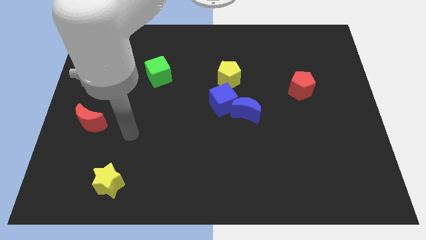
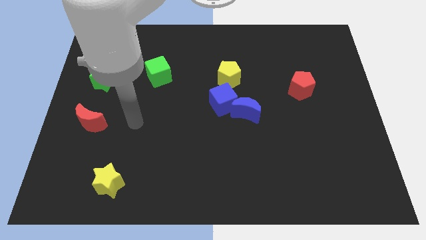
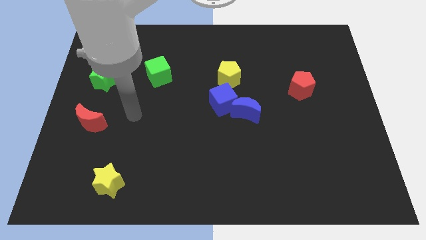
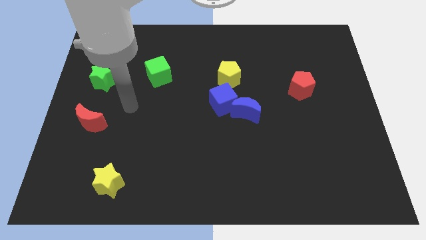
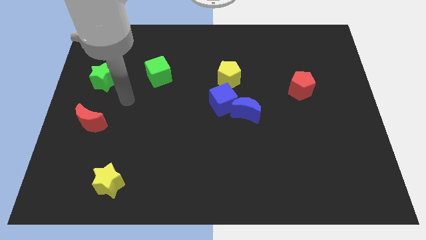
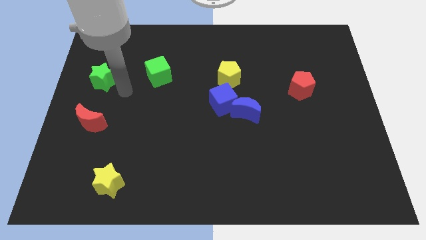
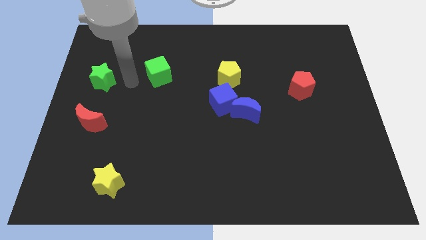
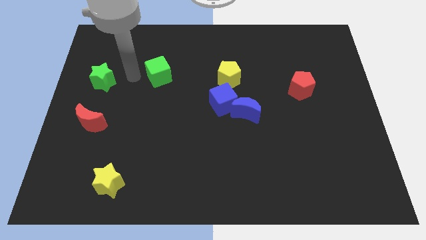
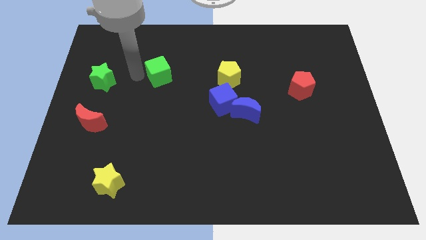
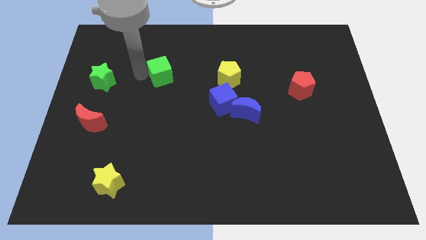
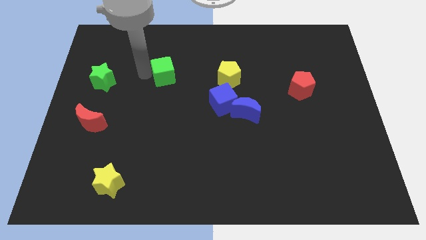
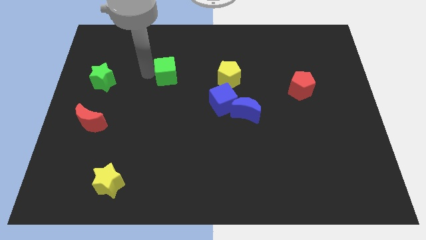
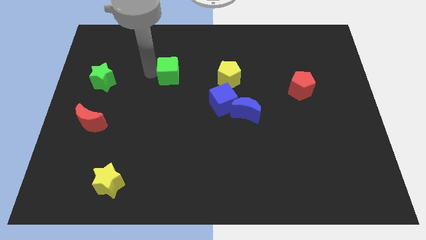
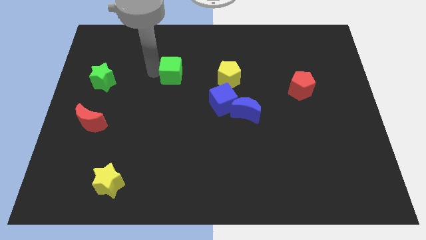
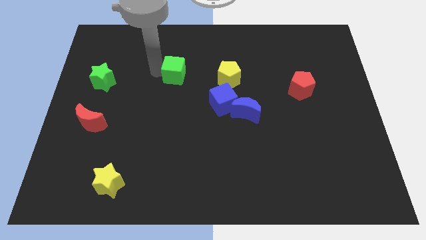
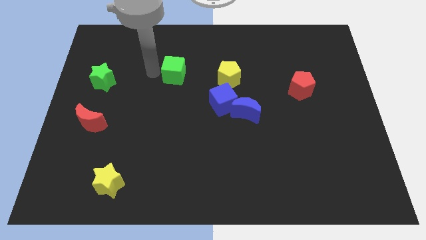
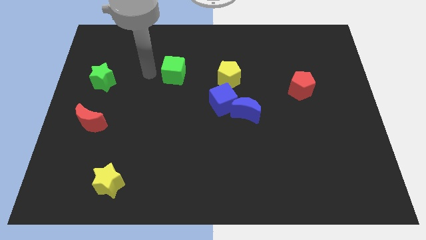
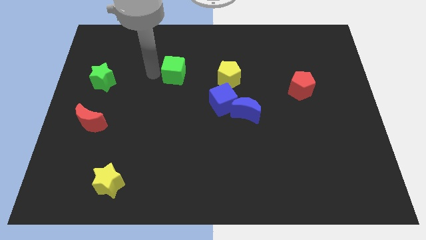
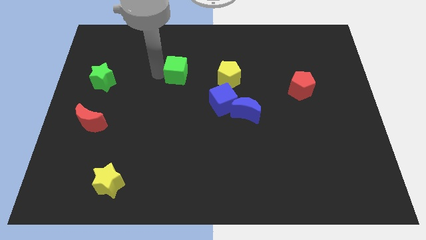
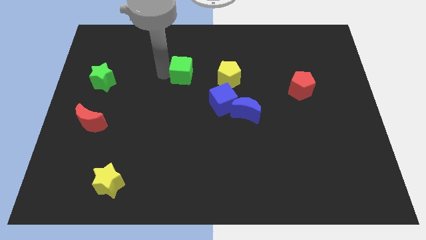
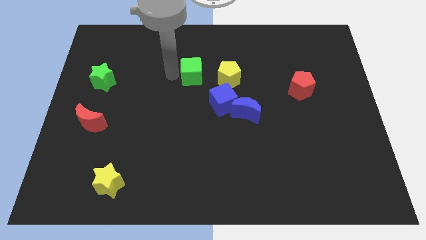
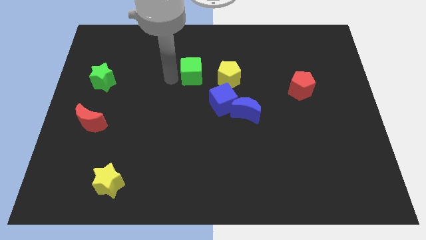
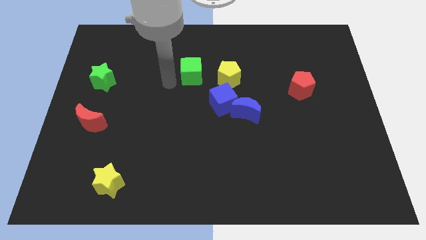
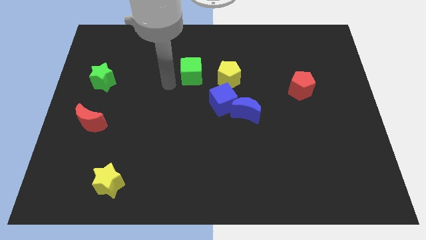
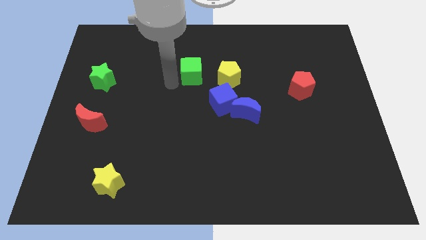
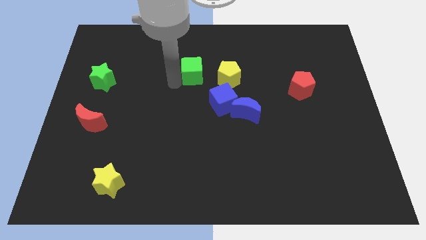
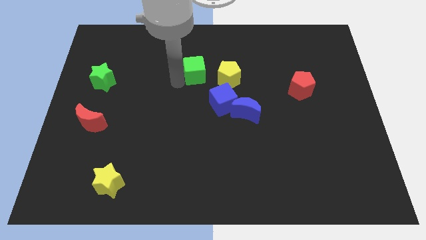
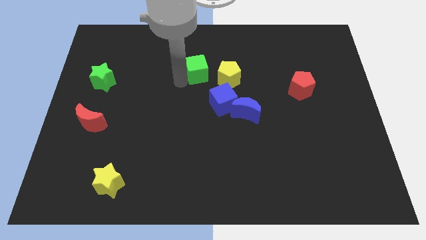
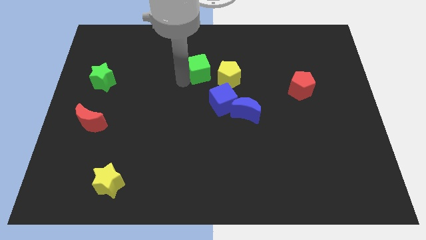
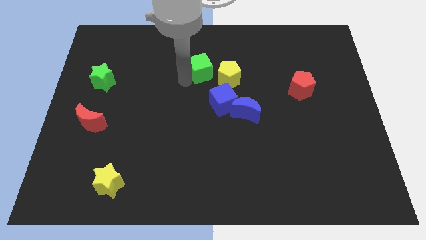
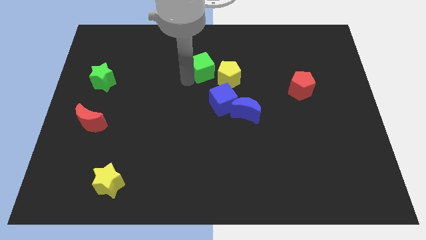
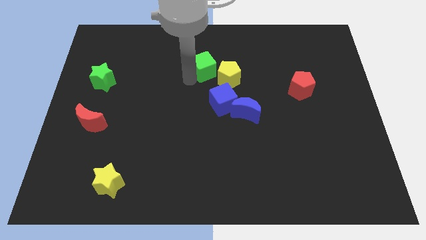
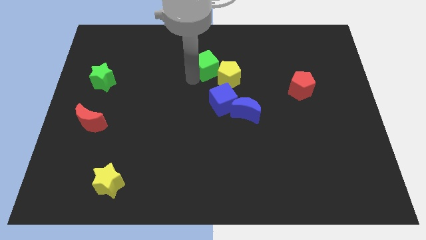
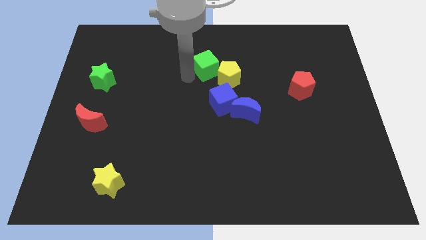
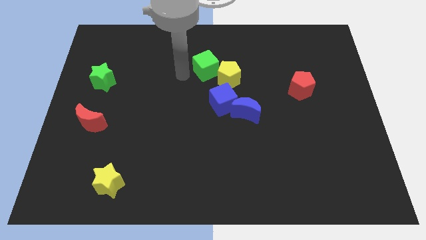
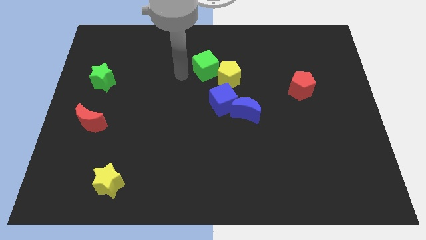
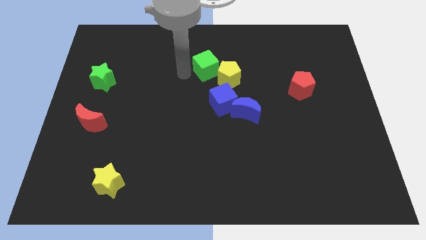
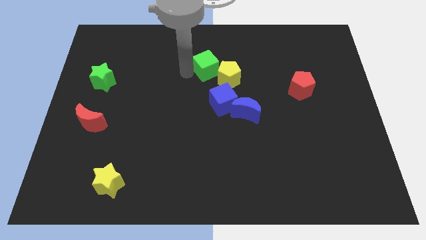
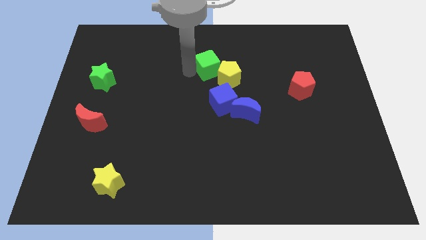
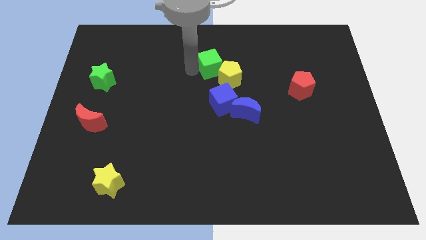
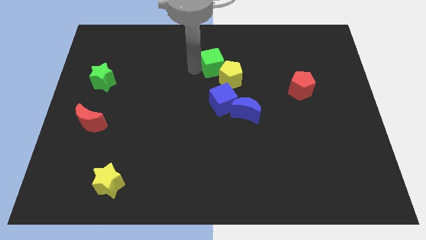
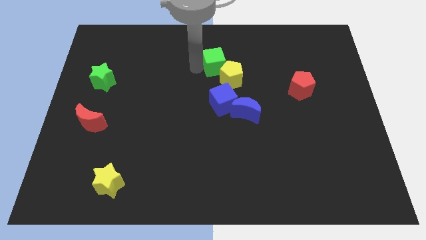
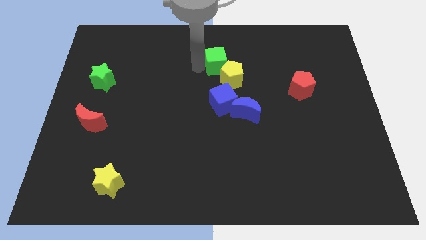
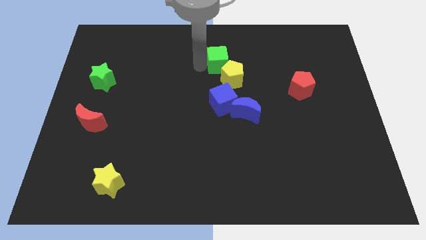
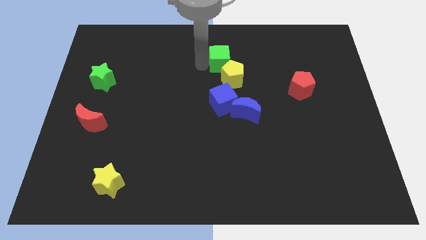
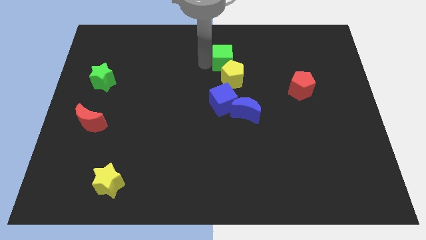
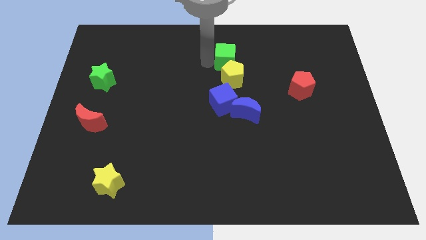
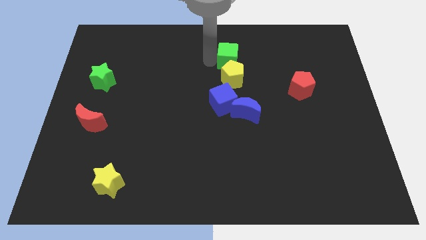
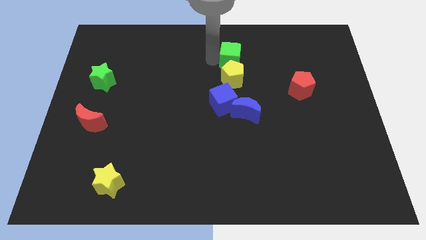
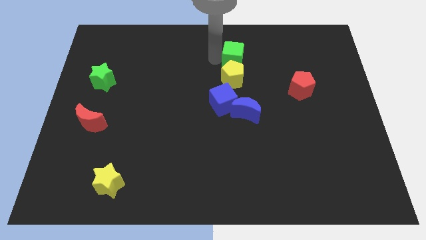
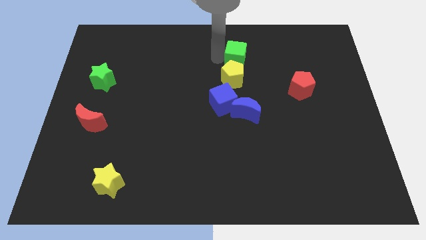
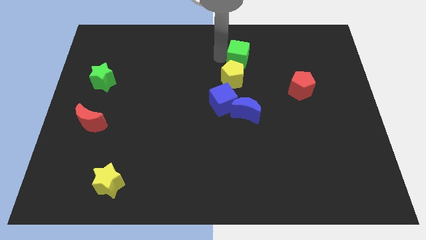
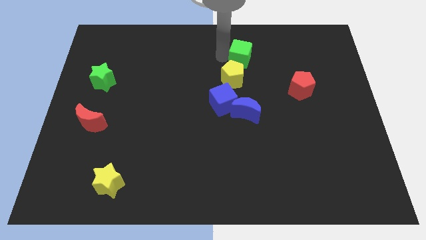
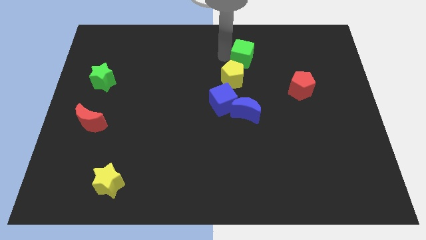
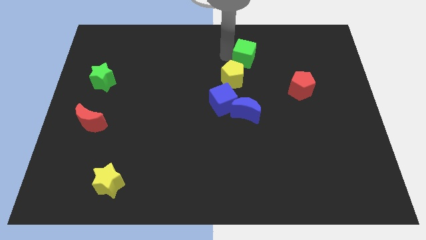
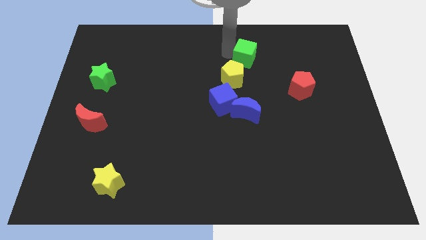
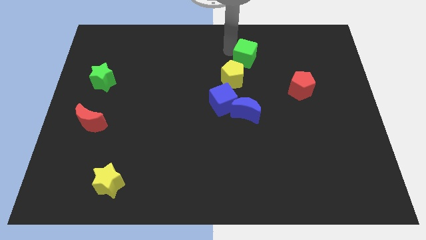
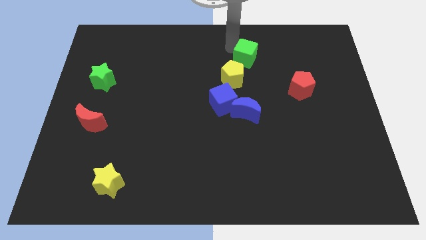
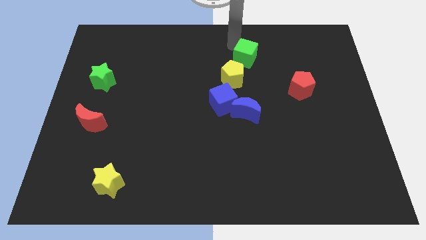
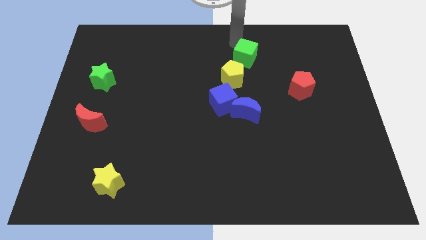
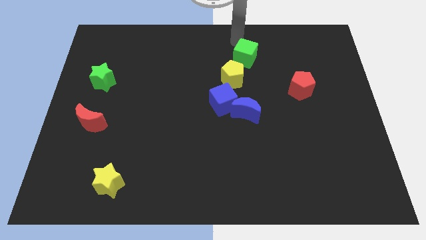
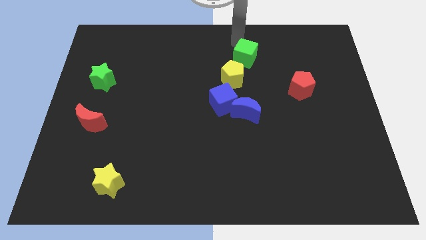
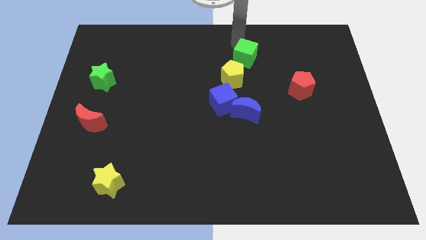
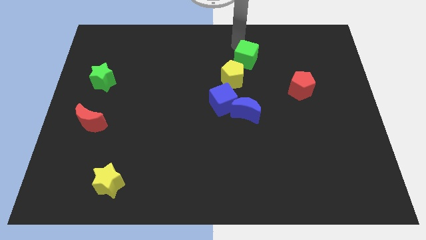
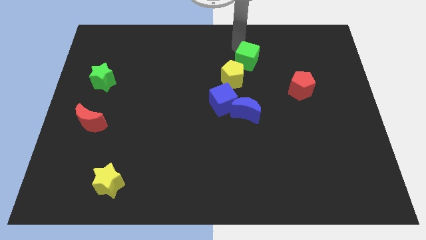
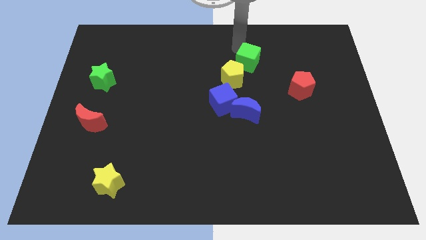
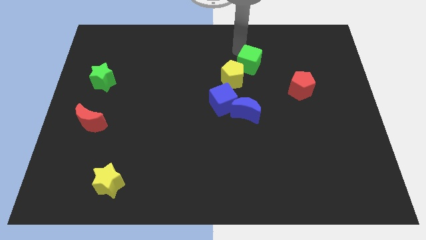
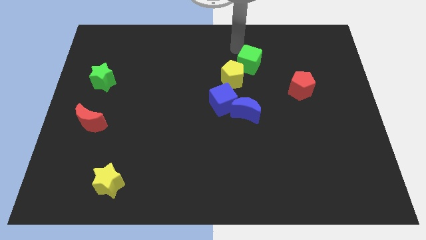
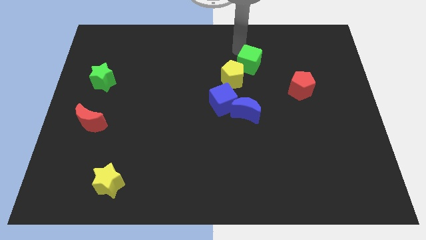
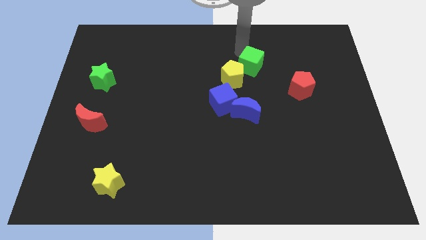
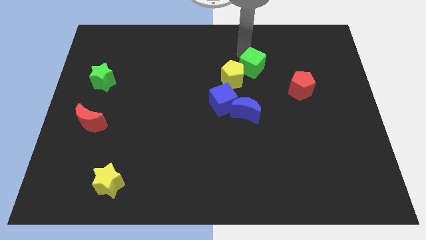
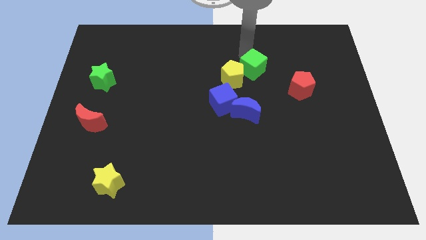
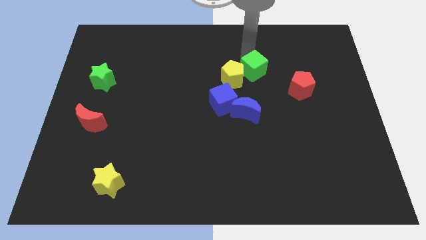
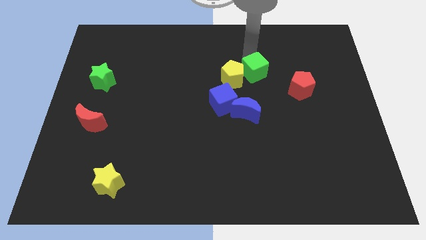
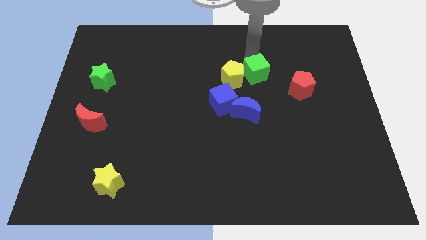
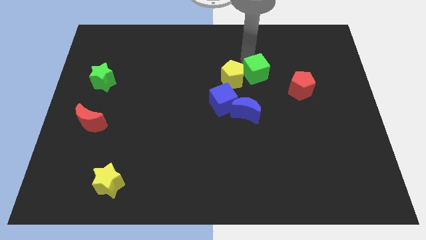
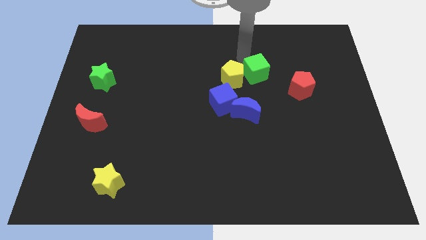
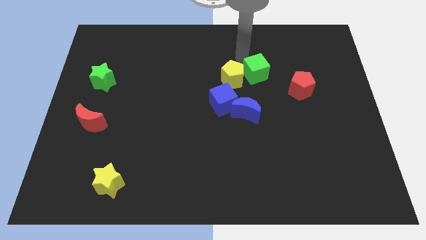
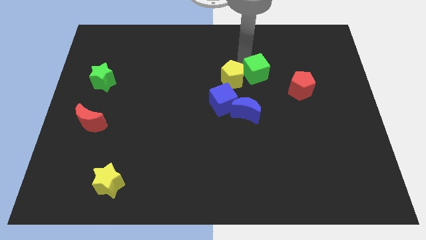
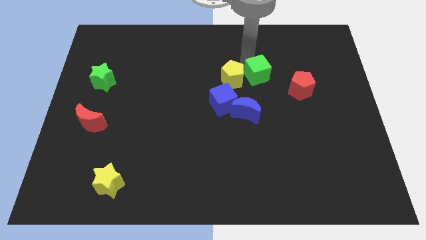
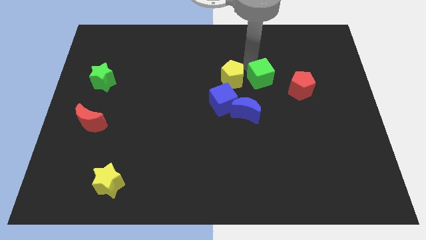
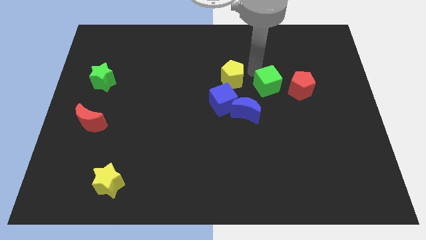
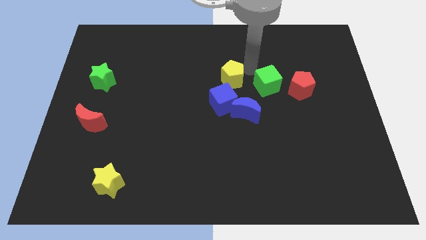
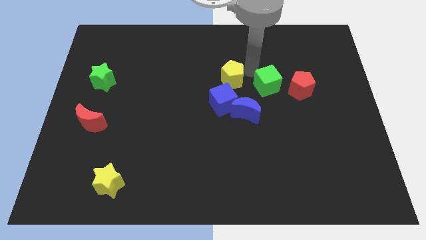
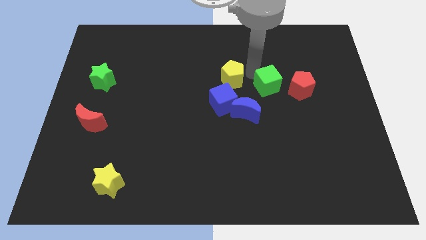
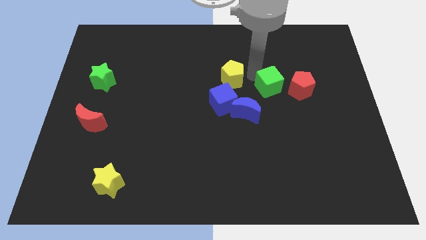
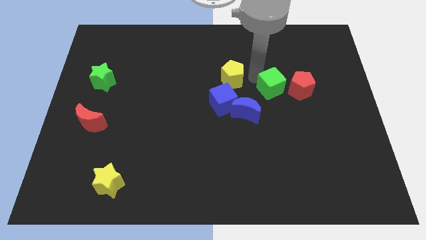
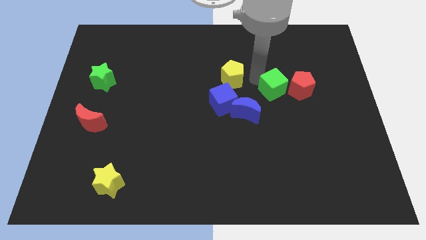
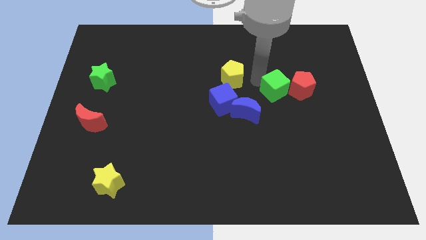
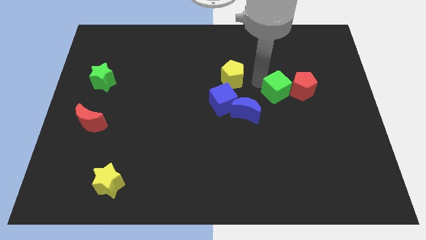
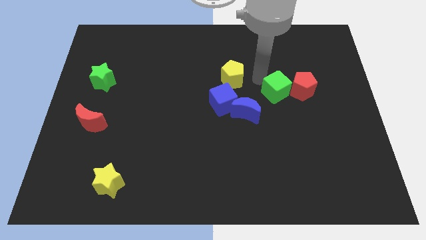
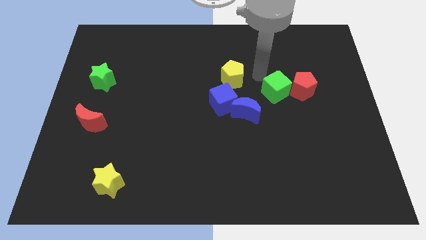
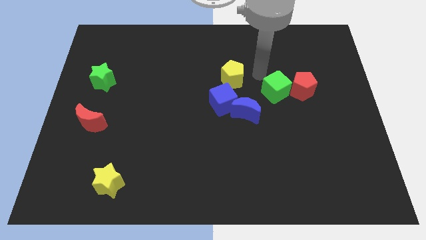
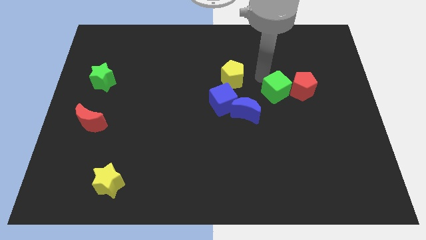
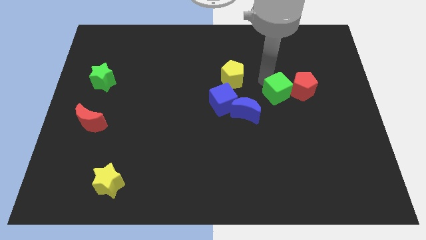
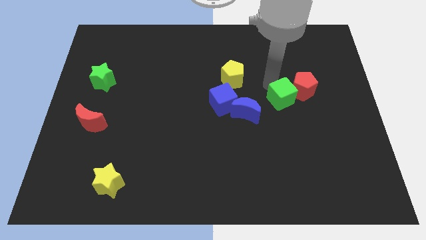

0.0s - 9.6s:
move the green cube to the right of the blue moon
